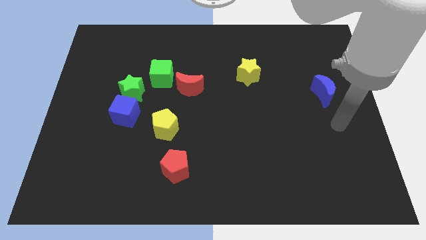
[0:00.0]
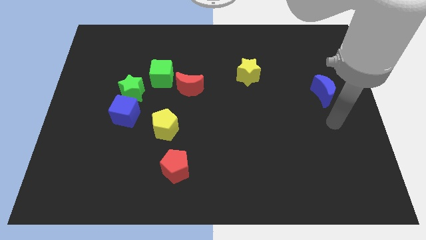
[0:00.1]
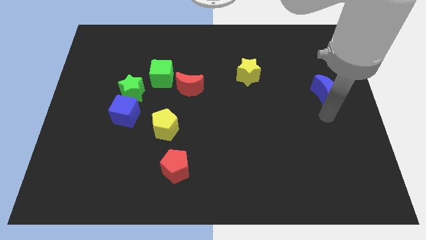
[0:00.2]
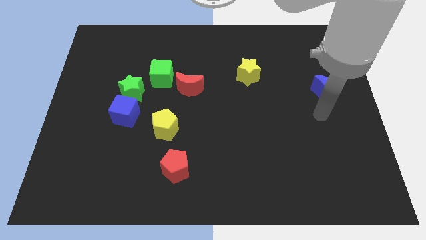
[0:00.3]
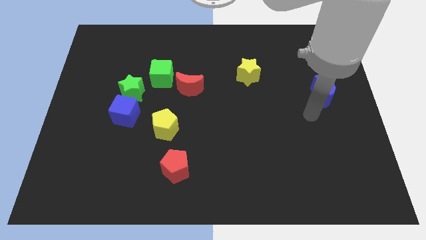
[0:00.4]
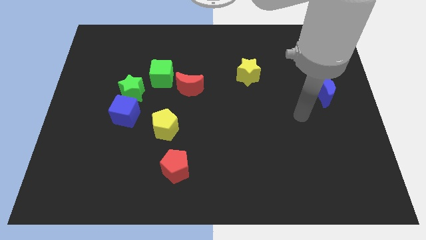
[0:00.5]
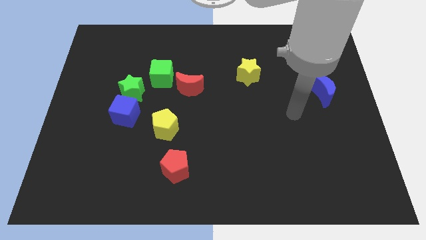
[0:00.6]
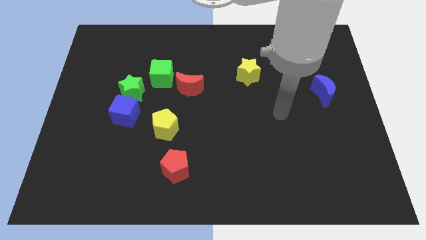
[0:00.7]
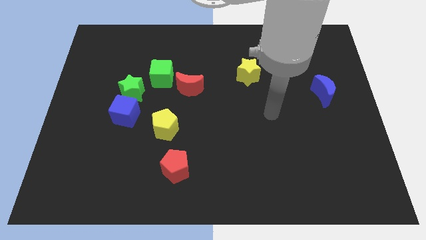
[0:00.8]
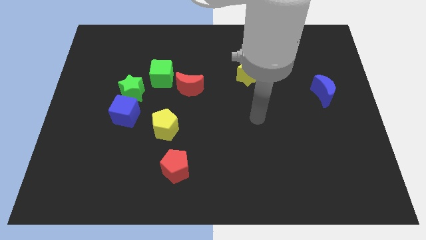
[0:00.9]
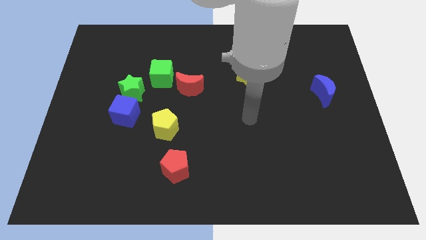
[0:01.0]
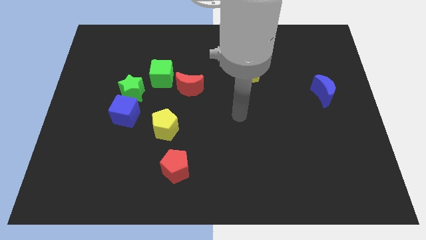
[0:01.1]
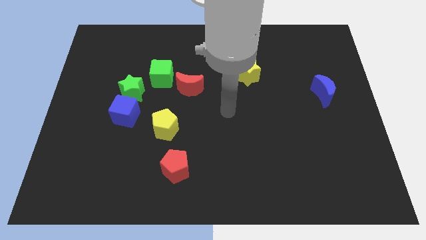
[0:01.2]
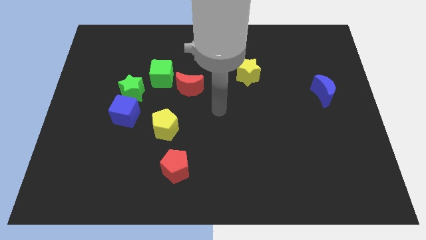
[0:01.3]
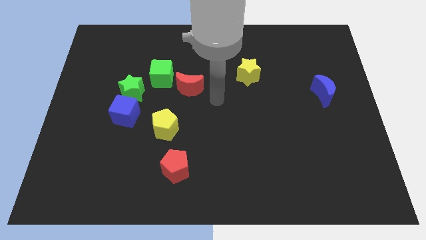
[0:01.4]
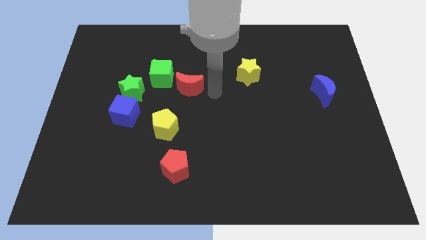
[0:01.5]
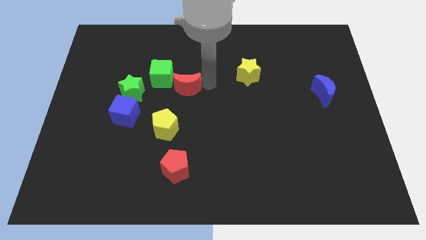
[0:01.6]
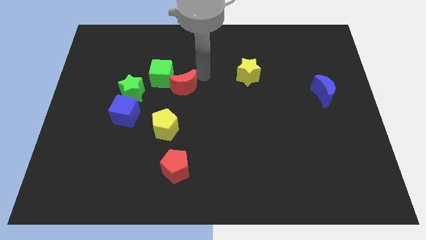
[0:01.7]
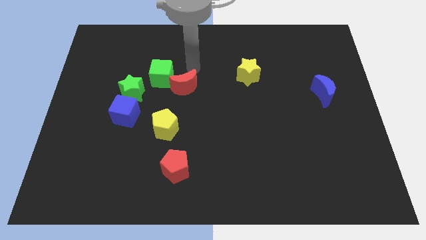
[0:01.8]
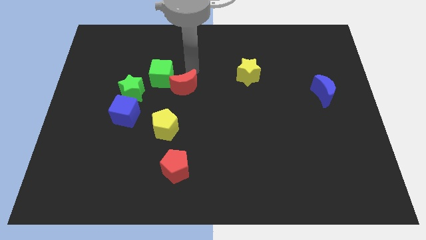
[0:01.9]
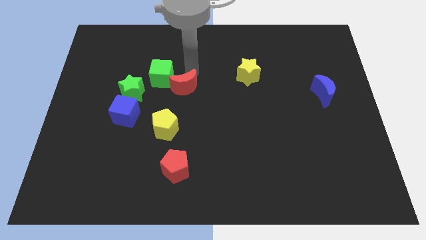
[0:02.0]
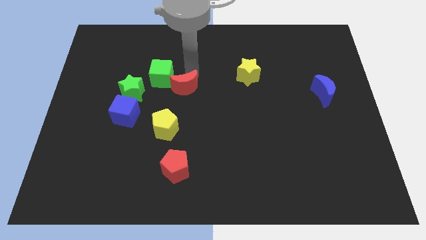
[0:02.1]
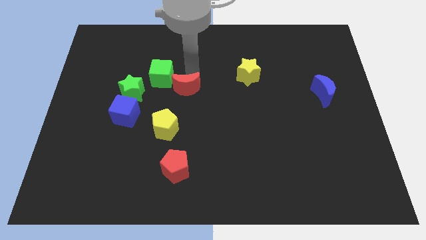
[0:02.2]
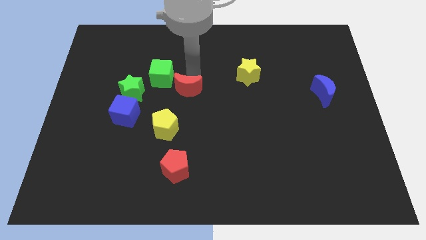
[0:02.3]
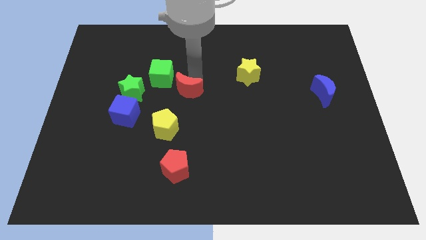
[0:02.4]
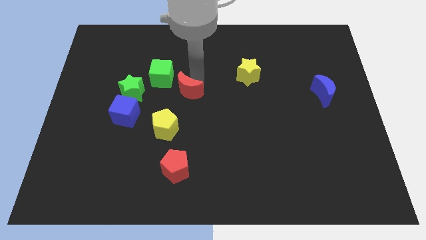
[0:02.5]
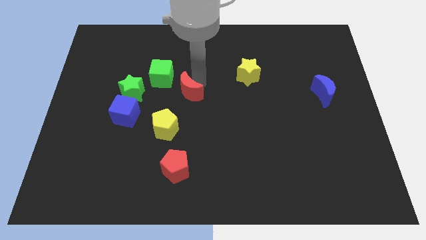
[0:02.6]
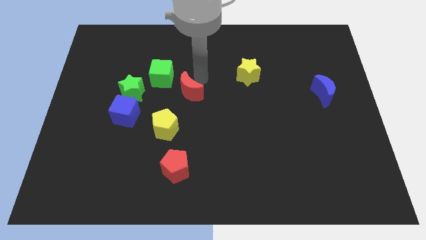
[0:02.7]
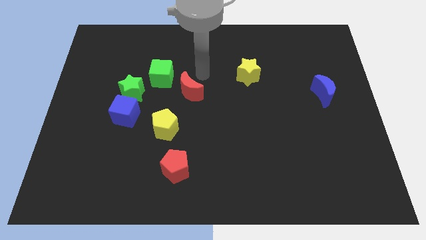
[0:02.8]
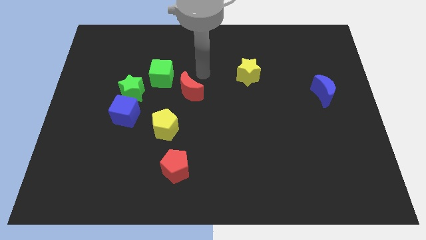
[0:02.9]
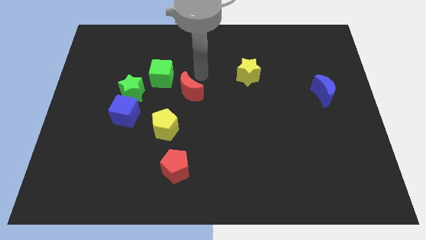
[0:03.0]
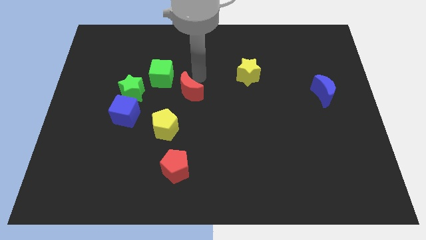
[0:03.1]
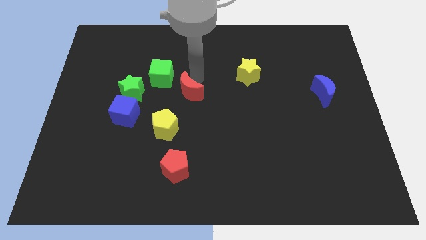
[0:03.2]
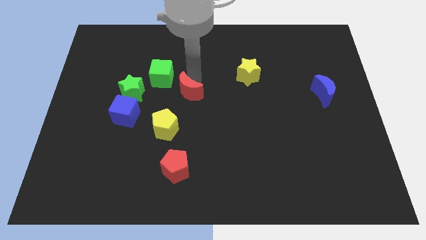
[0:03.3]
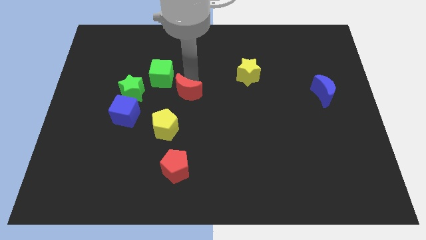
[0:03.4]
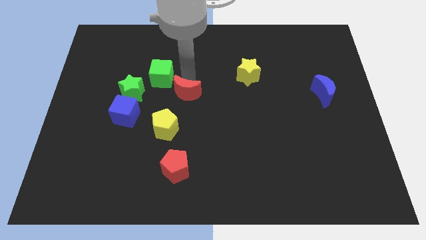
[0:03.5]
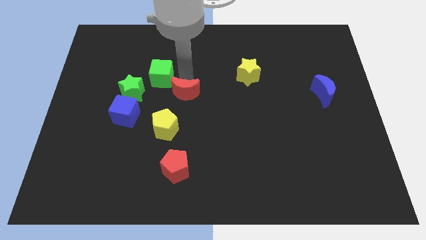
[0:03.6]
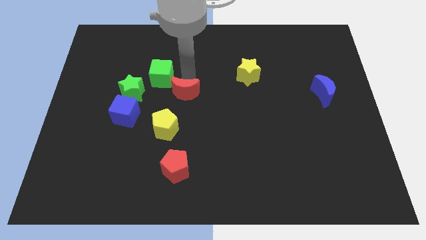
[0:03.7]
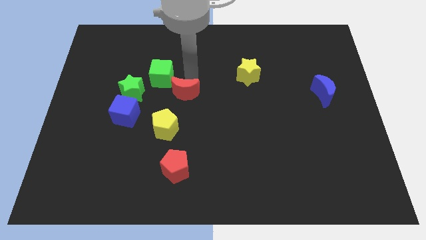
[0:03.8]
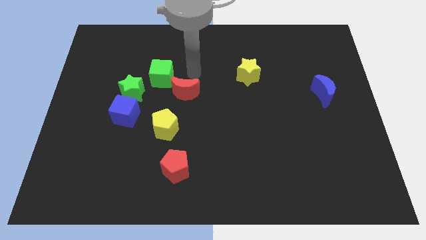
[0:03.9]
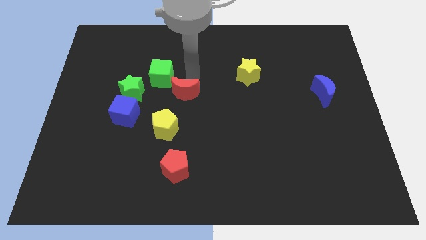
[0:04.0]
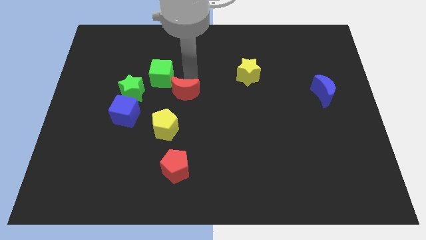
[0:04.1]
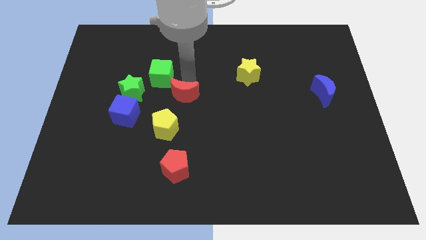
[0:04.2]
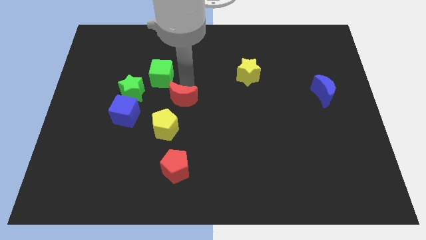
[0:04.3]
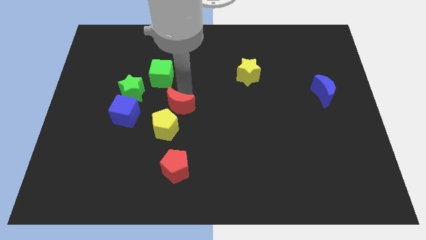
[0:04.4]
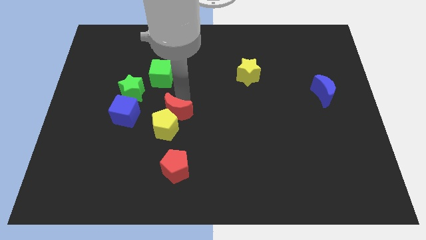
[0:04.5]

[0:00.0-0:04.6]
move the red moon towards the yellow pentagon

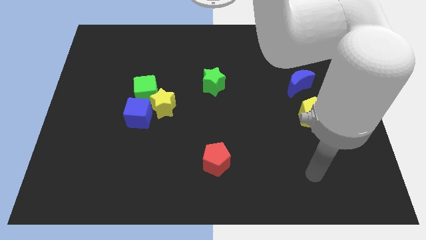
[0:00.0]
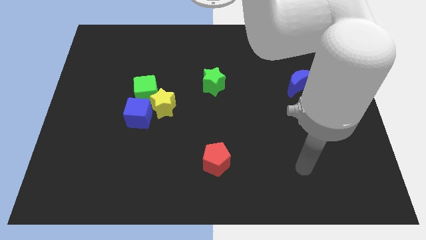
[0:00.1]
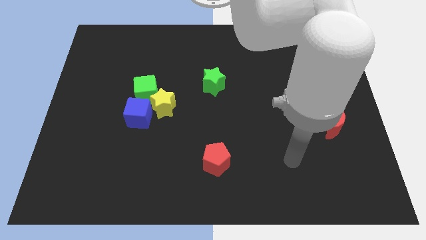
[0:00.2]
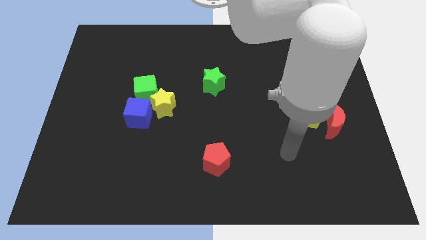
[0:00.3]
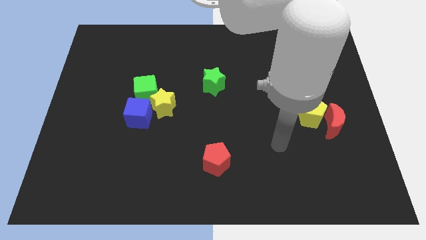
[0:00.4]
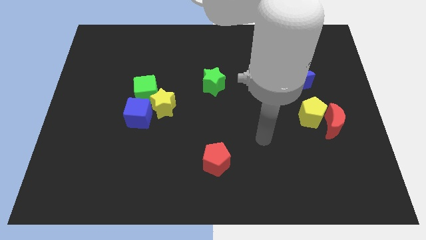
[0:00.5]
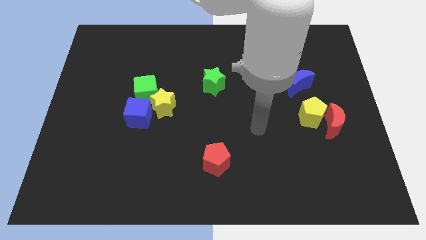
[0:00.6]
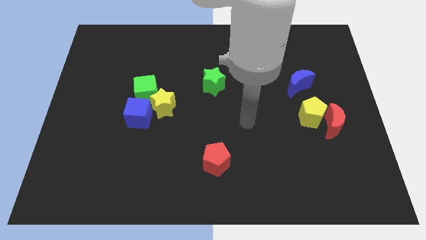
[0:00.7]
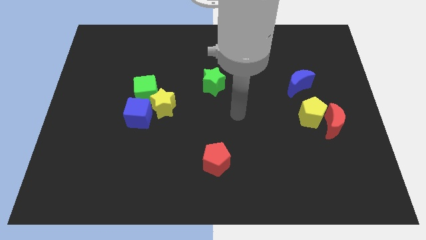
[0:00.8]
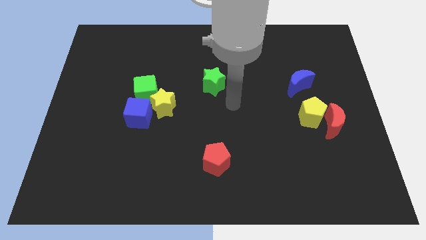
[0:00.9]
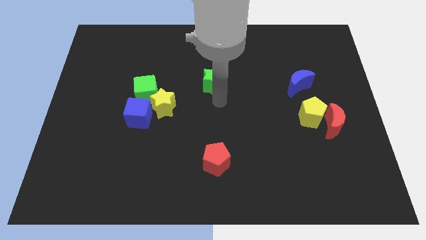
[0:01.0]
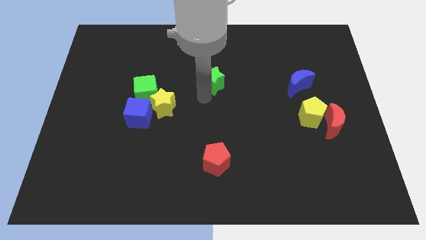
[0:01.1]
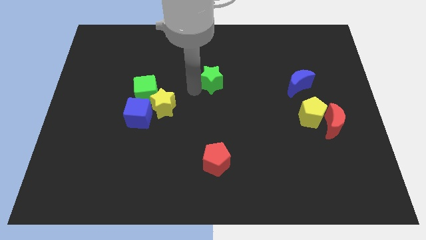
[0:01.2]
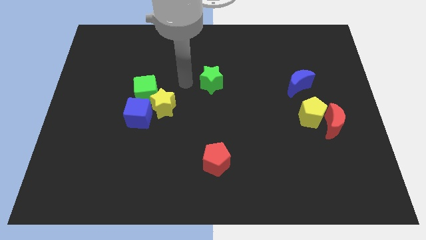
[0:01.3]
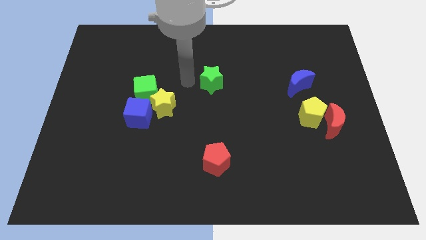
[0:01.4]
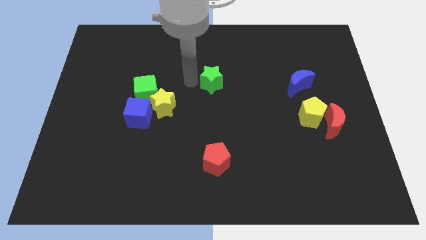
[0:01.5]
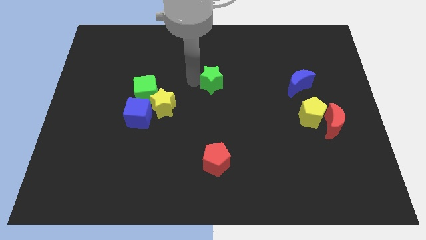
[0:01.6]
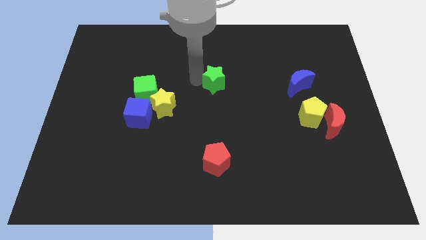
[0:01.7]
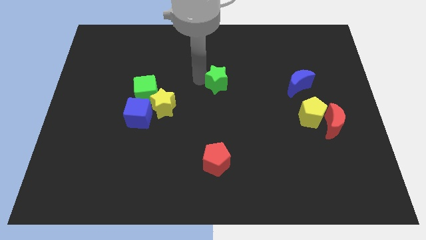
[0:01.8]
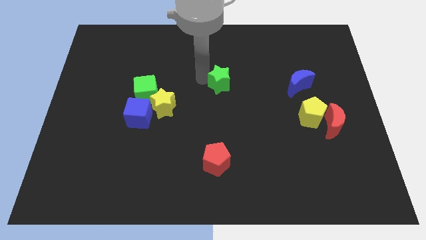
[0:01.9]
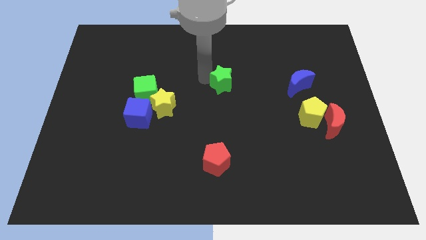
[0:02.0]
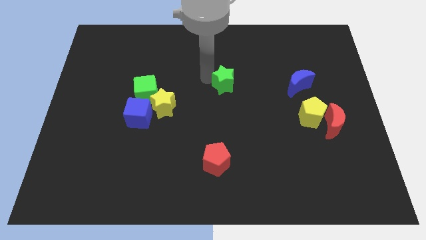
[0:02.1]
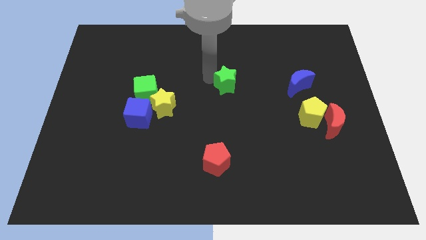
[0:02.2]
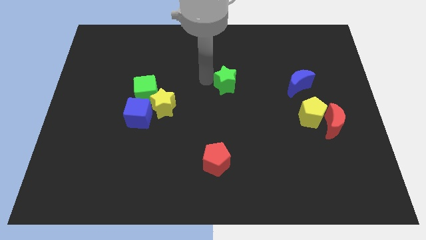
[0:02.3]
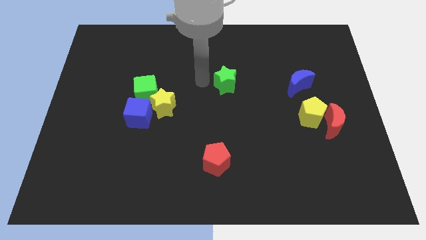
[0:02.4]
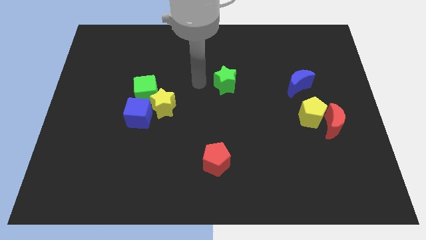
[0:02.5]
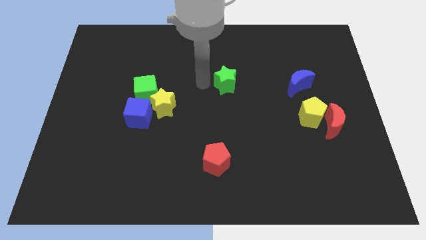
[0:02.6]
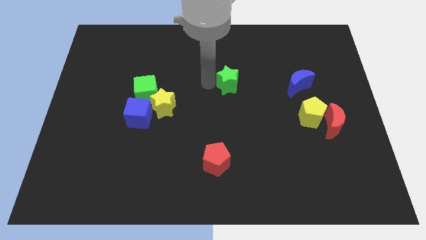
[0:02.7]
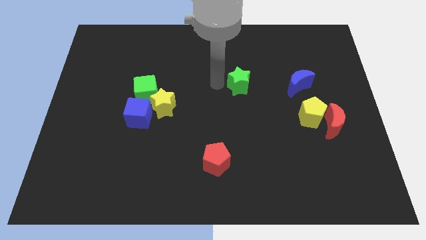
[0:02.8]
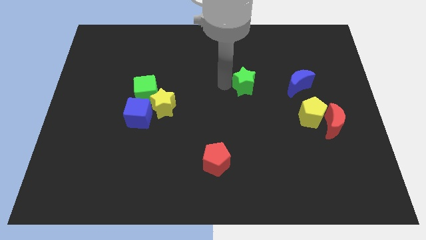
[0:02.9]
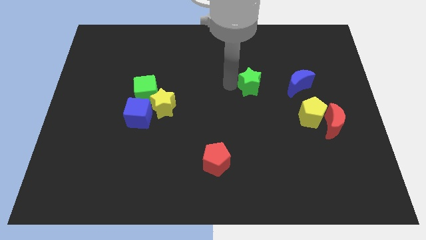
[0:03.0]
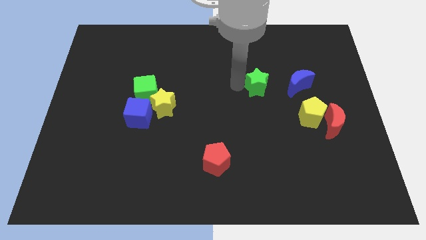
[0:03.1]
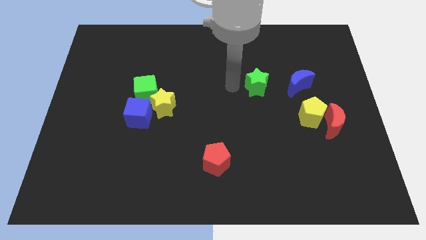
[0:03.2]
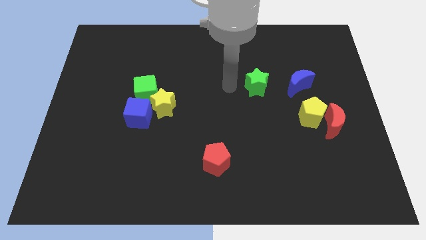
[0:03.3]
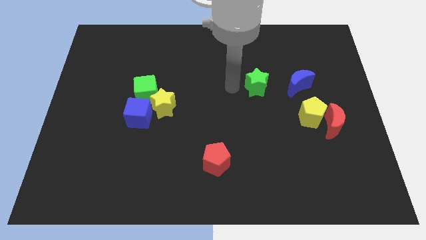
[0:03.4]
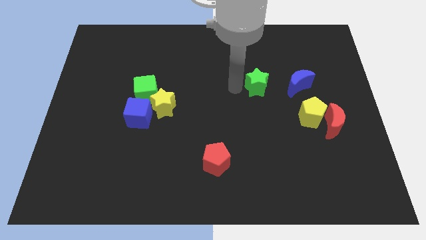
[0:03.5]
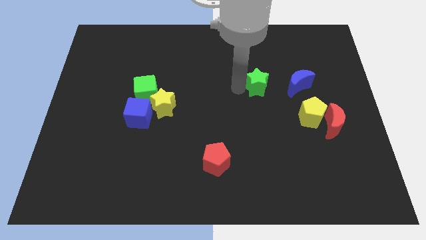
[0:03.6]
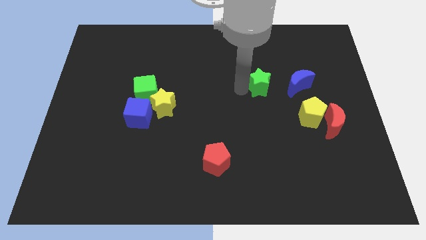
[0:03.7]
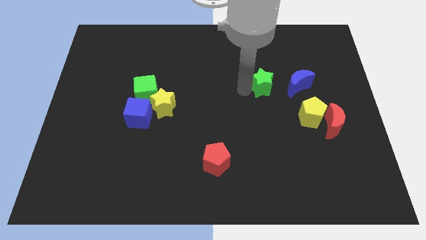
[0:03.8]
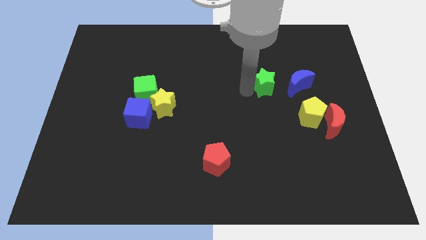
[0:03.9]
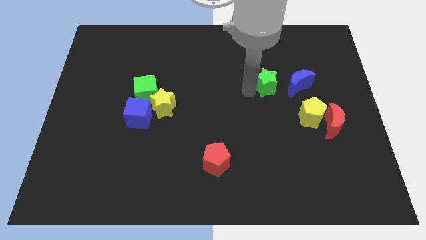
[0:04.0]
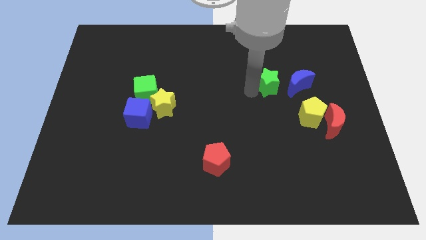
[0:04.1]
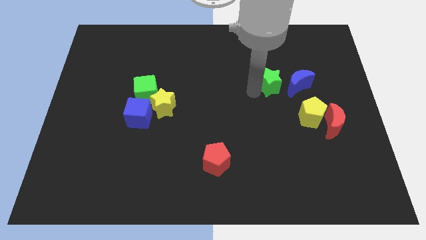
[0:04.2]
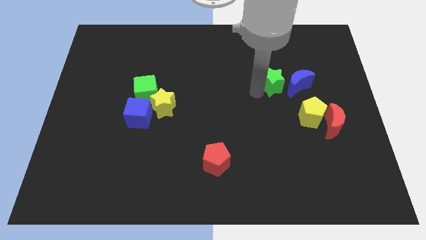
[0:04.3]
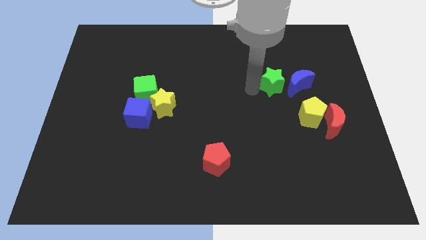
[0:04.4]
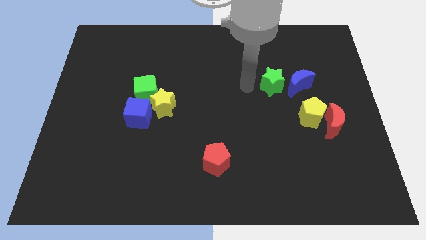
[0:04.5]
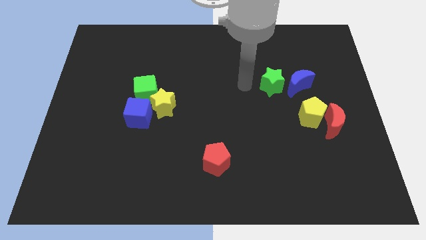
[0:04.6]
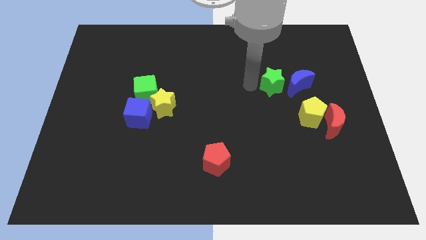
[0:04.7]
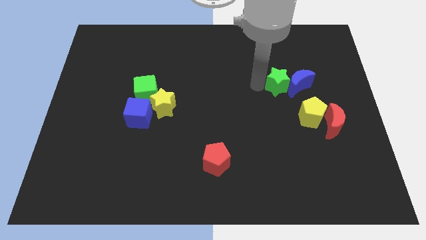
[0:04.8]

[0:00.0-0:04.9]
put the green star towards the blue moon
